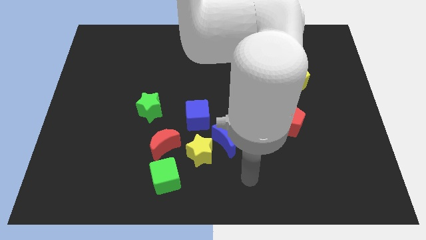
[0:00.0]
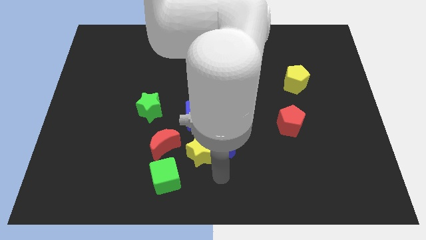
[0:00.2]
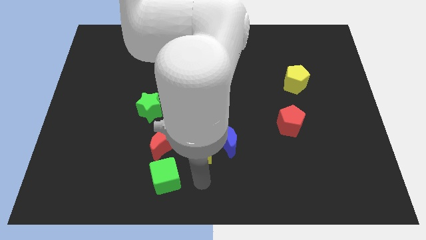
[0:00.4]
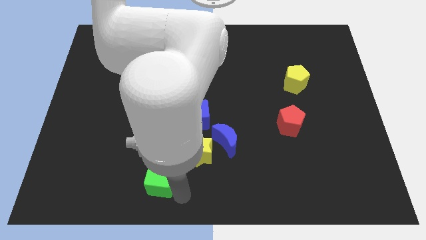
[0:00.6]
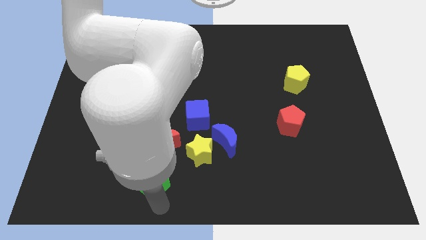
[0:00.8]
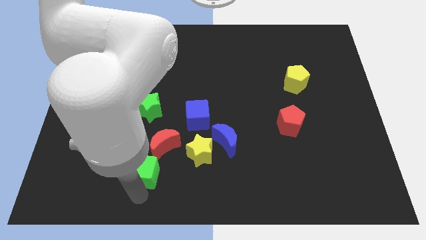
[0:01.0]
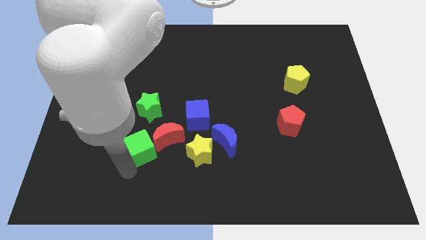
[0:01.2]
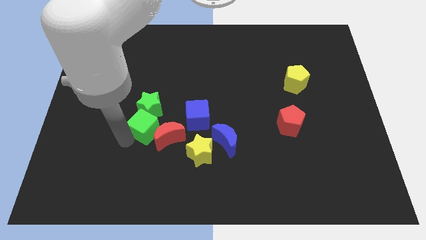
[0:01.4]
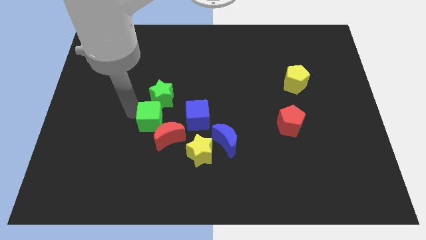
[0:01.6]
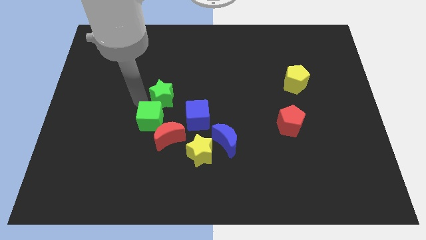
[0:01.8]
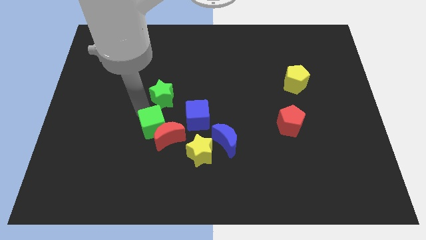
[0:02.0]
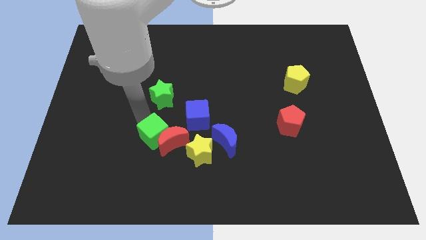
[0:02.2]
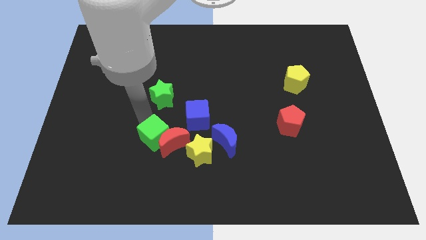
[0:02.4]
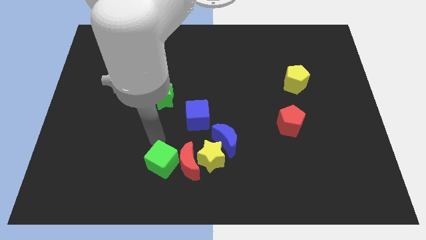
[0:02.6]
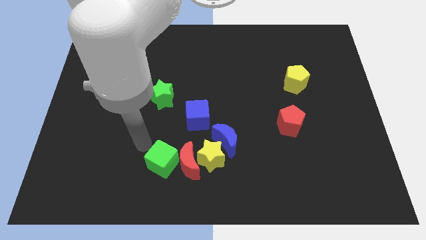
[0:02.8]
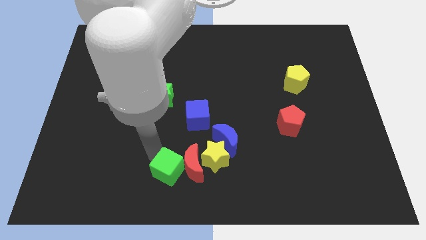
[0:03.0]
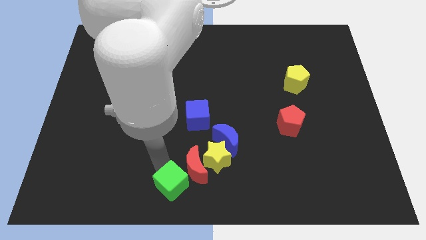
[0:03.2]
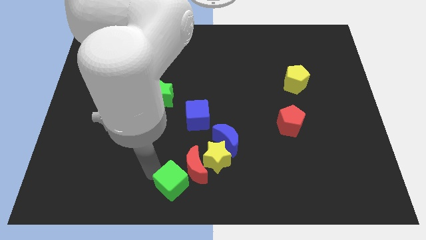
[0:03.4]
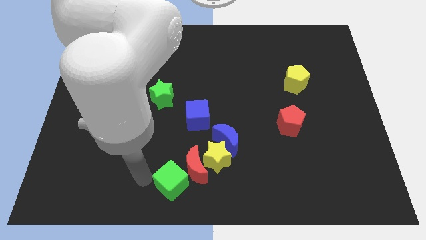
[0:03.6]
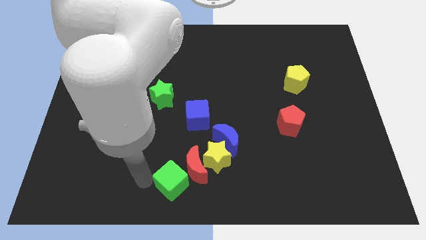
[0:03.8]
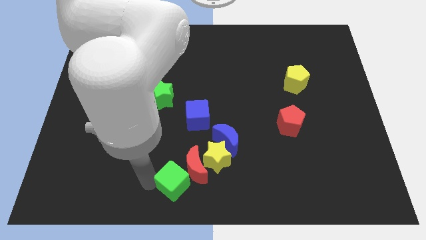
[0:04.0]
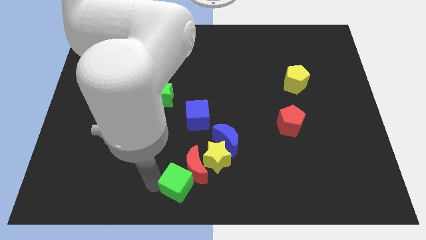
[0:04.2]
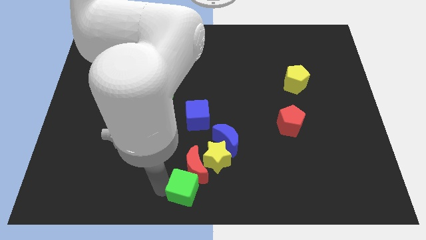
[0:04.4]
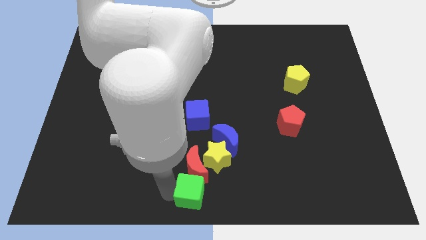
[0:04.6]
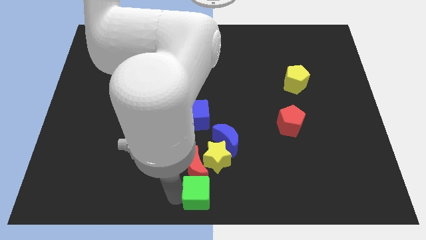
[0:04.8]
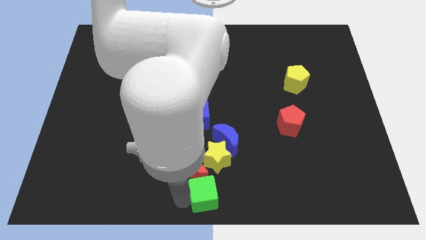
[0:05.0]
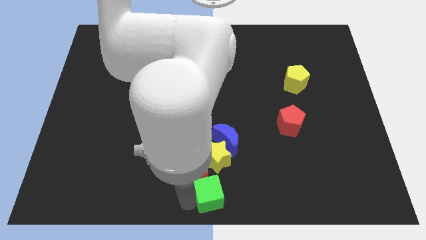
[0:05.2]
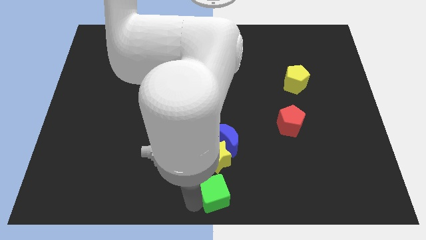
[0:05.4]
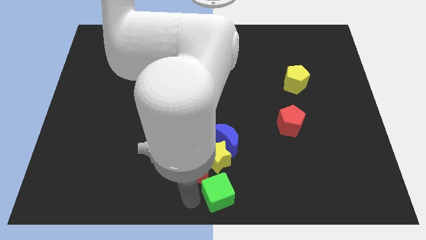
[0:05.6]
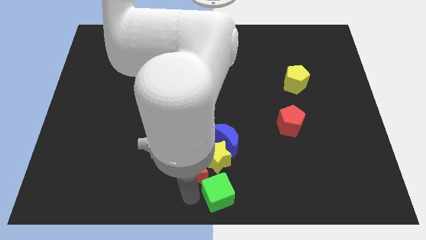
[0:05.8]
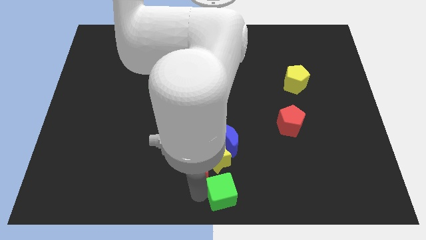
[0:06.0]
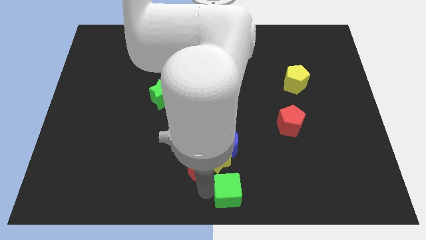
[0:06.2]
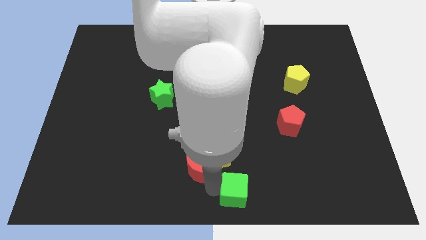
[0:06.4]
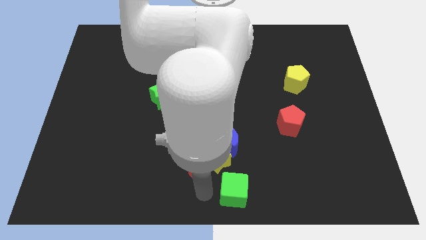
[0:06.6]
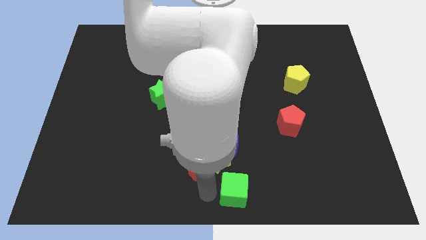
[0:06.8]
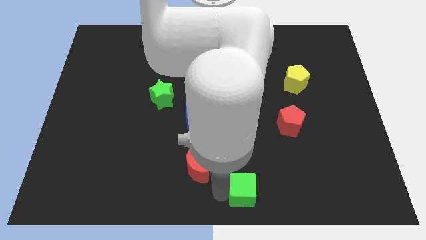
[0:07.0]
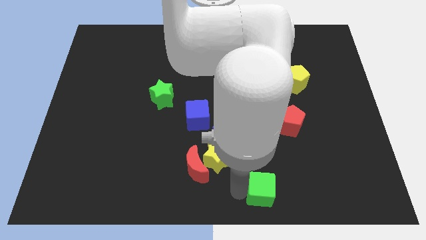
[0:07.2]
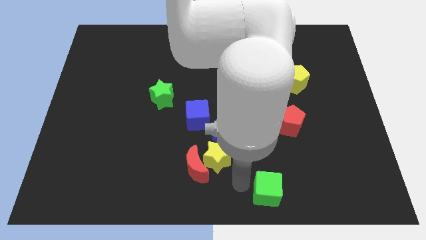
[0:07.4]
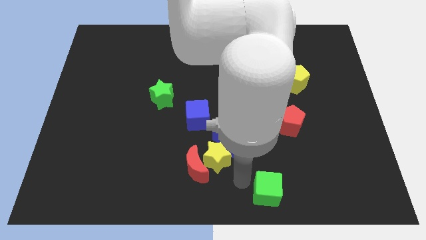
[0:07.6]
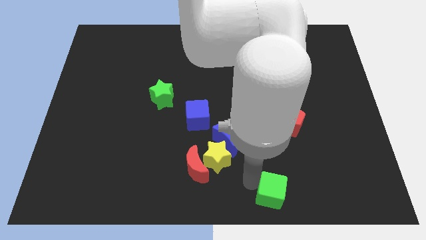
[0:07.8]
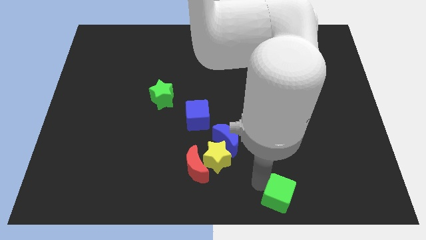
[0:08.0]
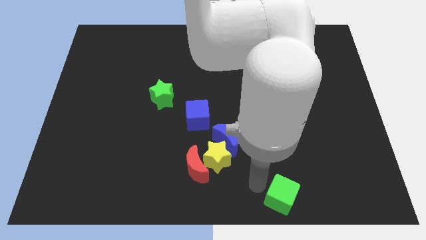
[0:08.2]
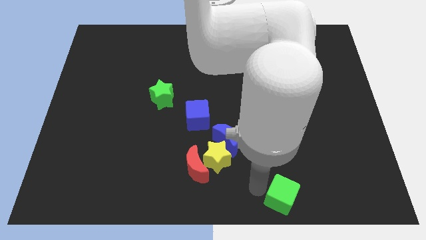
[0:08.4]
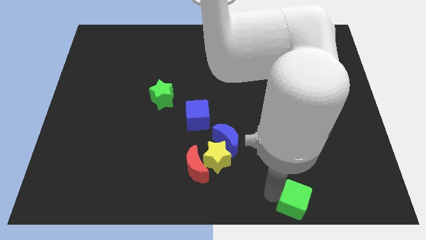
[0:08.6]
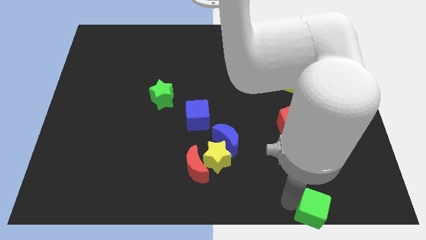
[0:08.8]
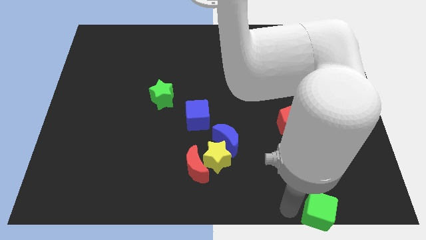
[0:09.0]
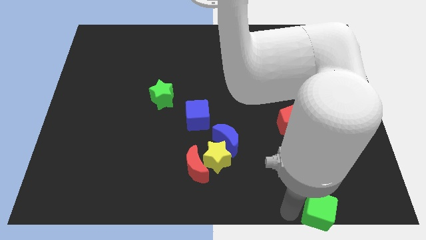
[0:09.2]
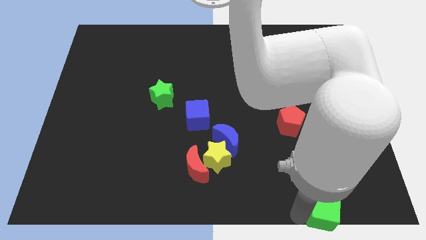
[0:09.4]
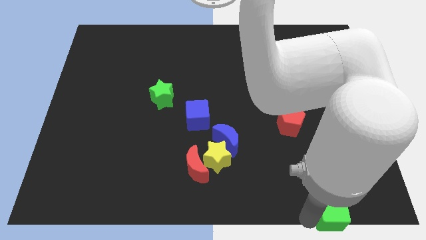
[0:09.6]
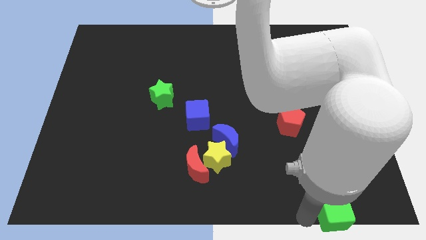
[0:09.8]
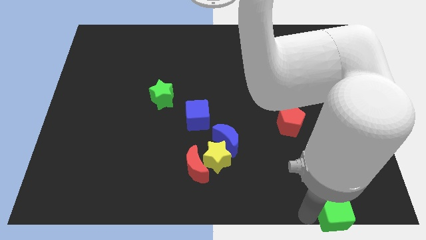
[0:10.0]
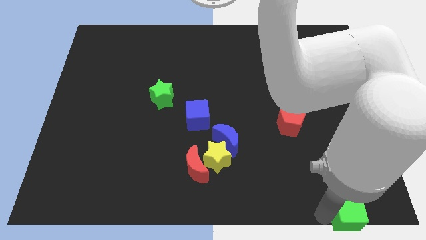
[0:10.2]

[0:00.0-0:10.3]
move the green cube to the bottom right corner

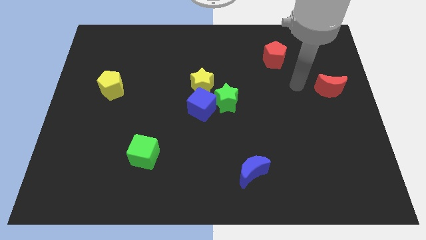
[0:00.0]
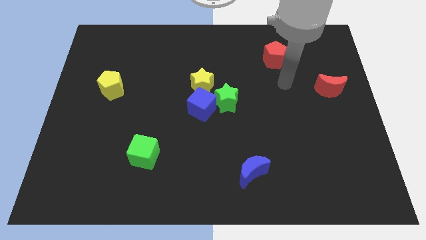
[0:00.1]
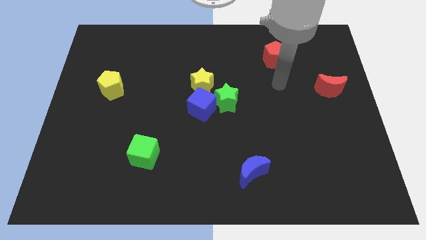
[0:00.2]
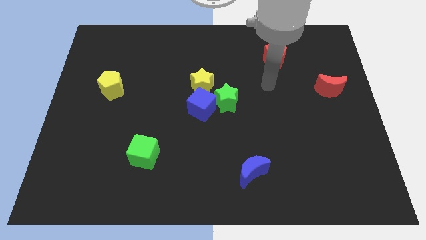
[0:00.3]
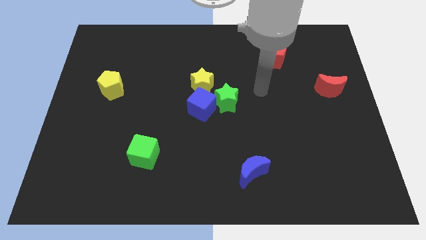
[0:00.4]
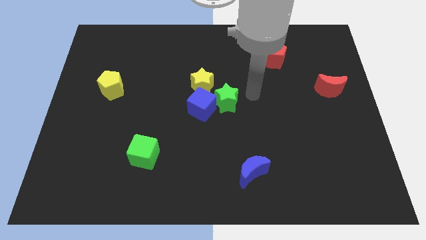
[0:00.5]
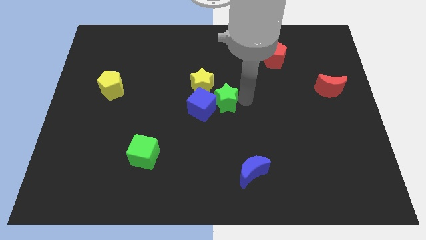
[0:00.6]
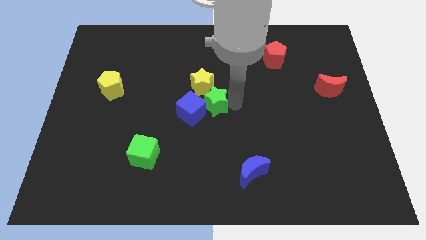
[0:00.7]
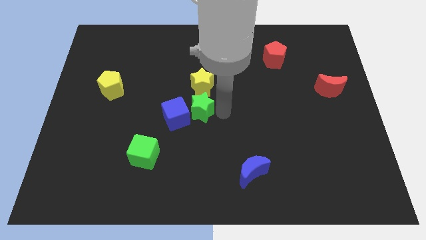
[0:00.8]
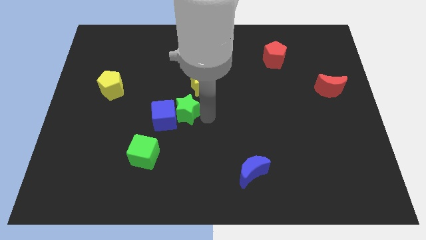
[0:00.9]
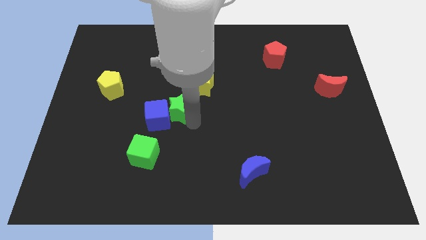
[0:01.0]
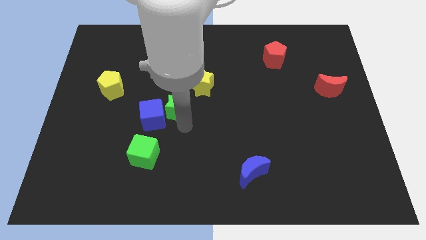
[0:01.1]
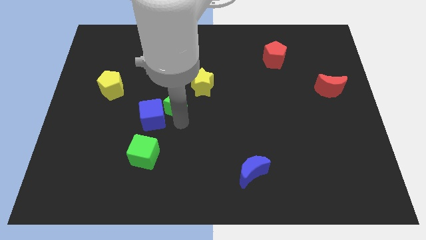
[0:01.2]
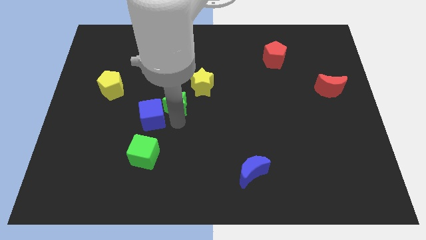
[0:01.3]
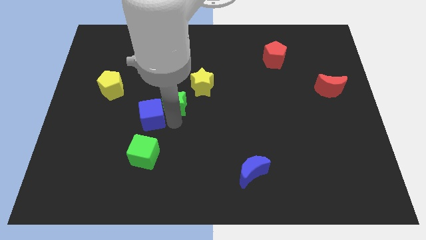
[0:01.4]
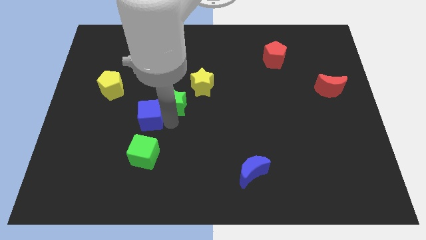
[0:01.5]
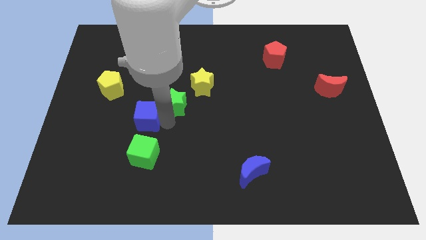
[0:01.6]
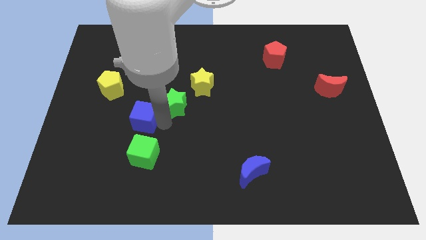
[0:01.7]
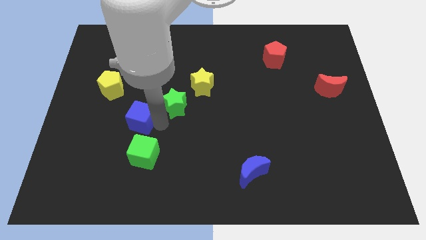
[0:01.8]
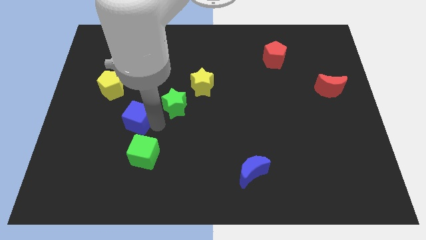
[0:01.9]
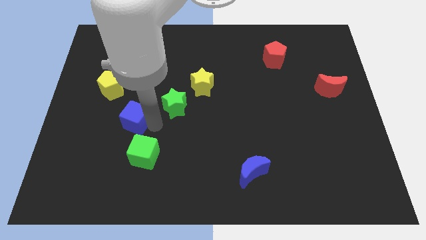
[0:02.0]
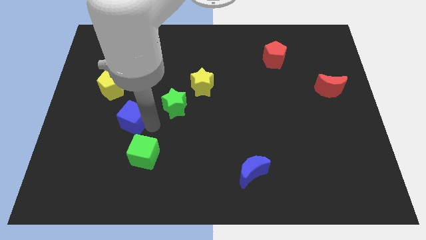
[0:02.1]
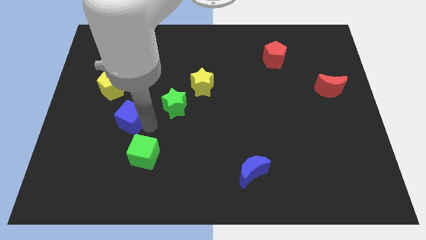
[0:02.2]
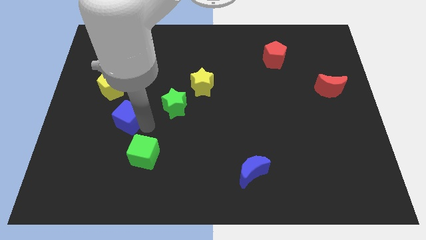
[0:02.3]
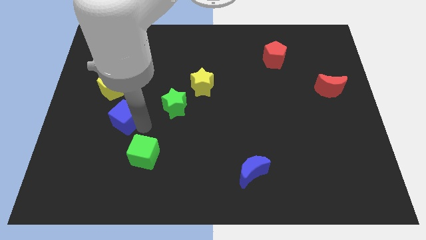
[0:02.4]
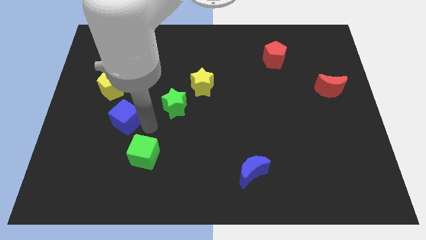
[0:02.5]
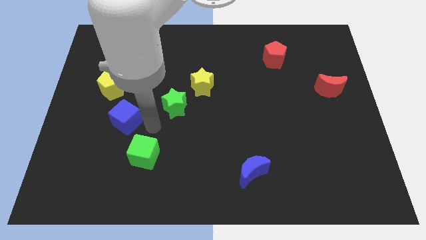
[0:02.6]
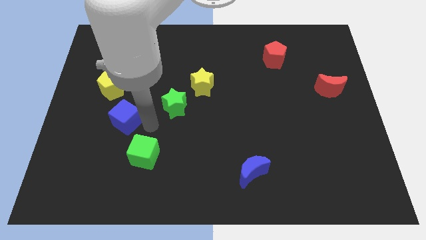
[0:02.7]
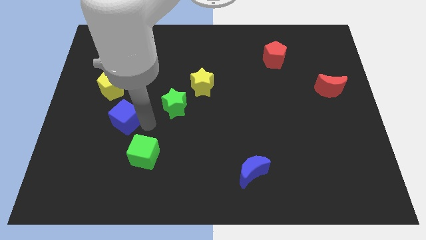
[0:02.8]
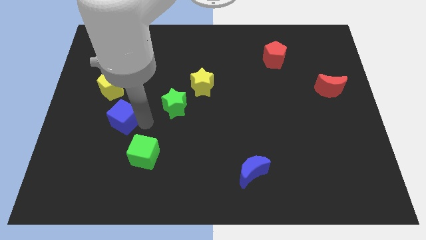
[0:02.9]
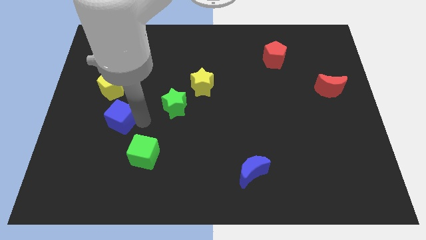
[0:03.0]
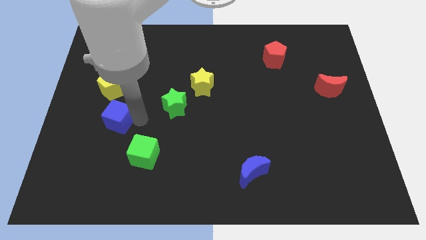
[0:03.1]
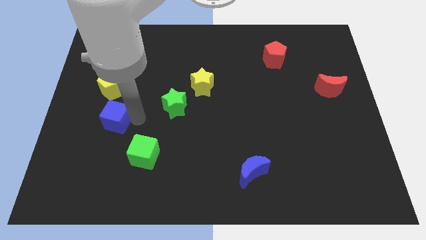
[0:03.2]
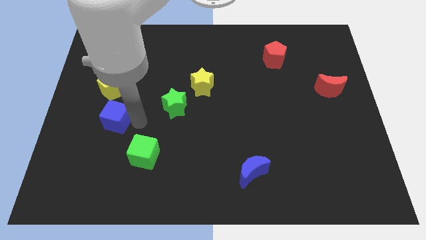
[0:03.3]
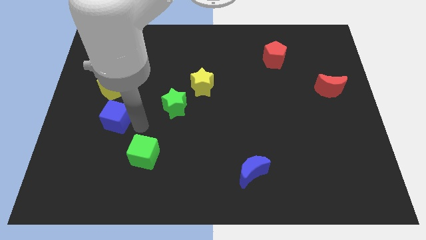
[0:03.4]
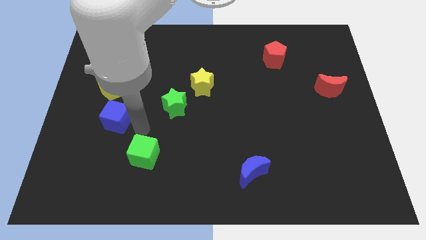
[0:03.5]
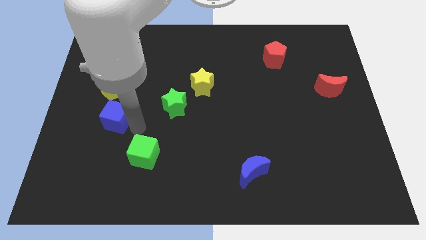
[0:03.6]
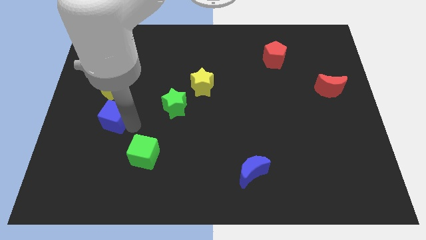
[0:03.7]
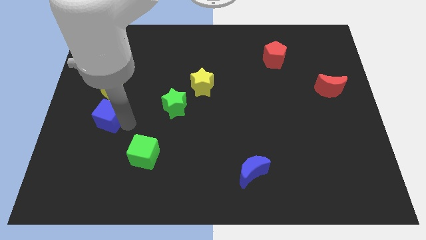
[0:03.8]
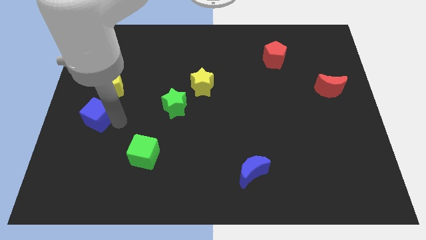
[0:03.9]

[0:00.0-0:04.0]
slide the blue cube to the left side
